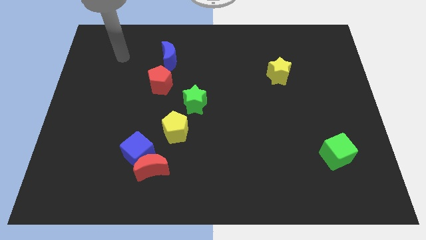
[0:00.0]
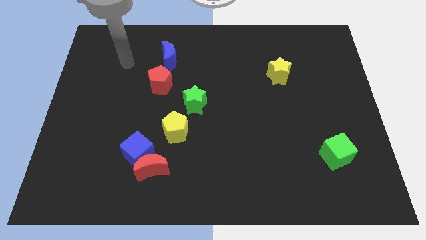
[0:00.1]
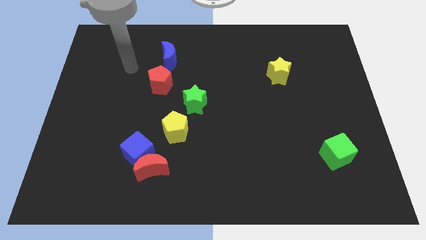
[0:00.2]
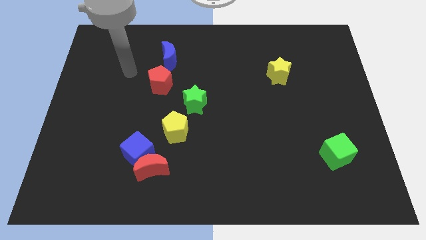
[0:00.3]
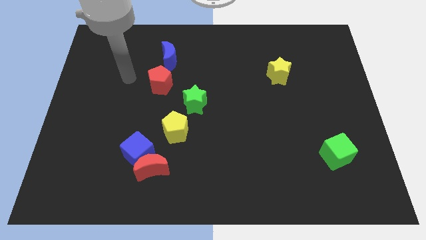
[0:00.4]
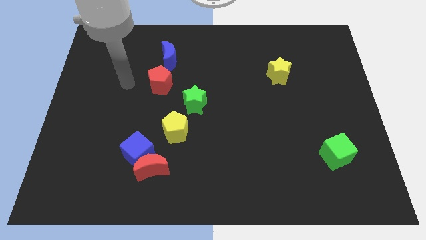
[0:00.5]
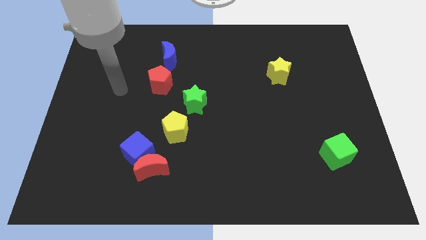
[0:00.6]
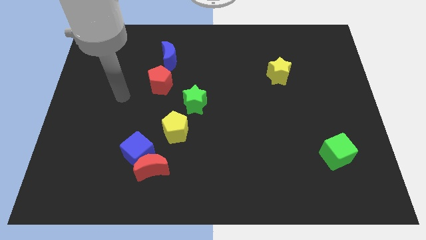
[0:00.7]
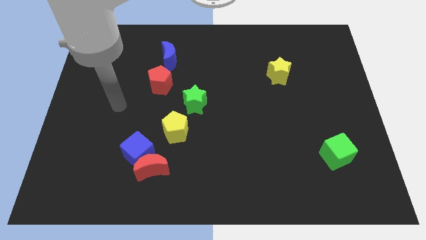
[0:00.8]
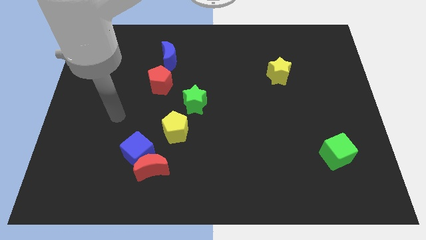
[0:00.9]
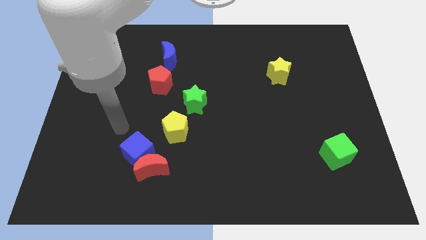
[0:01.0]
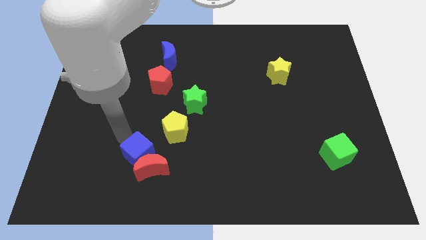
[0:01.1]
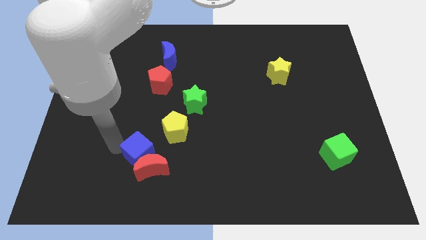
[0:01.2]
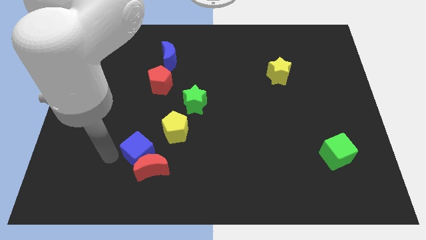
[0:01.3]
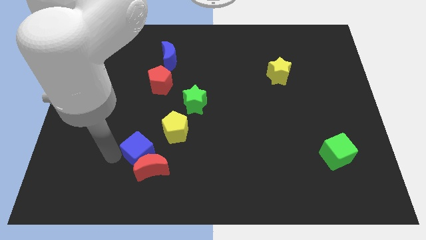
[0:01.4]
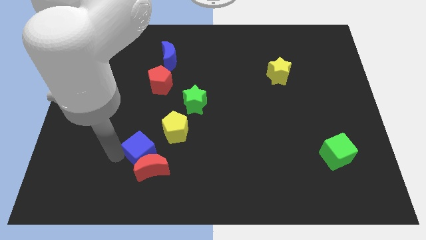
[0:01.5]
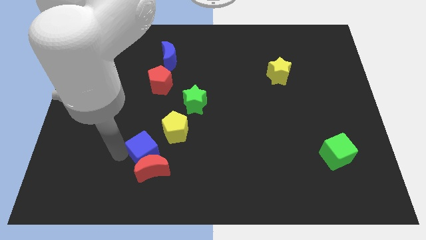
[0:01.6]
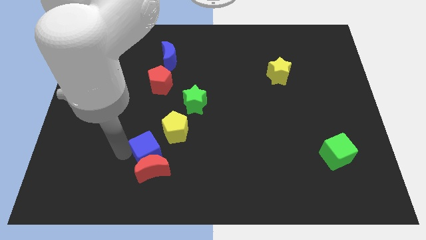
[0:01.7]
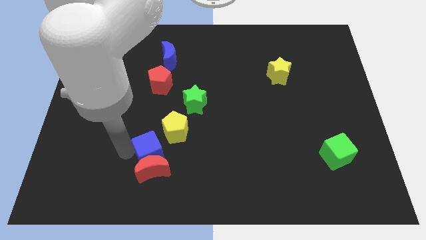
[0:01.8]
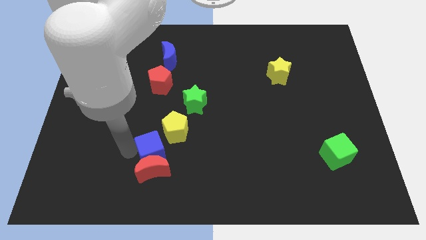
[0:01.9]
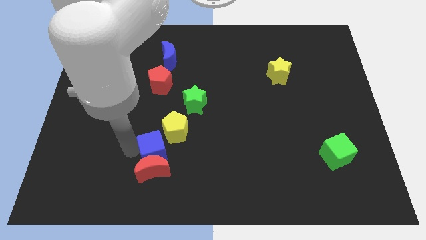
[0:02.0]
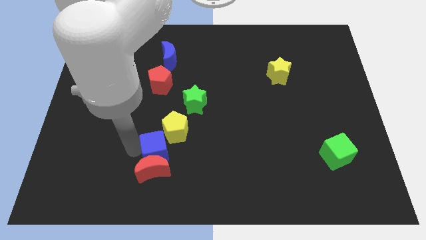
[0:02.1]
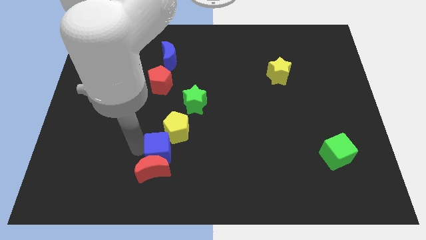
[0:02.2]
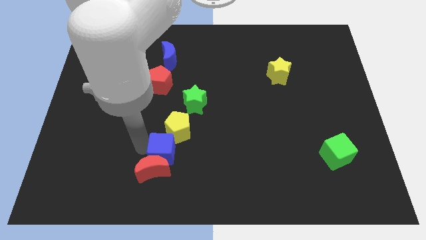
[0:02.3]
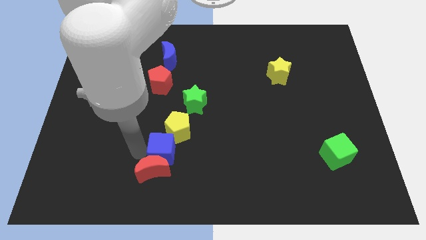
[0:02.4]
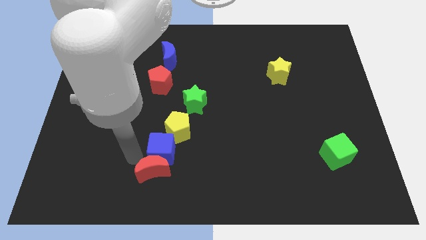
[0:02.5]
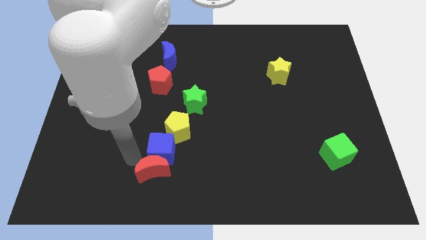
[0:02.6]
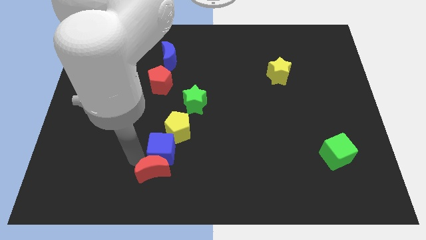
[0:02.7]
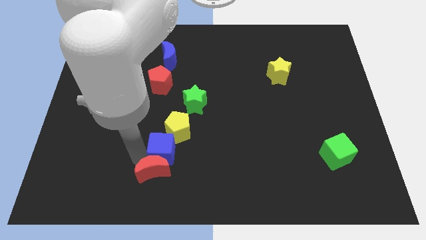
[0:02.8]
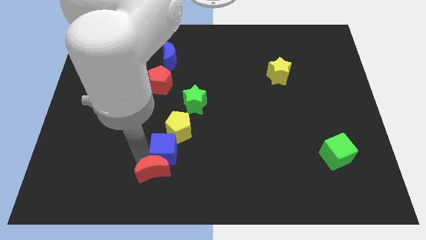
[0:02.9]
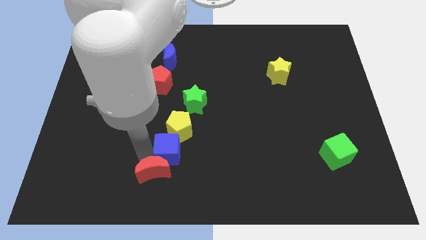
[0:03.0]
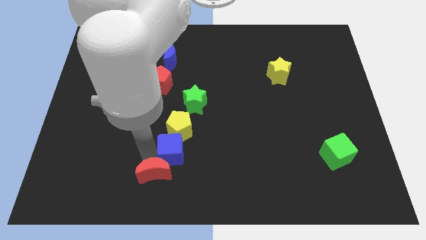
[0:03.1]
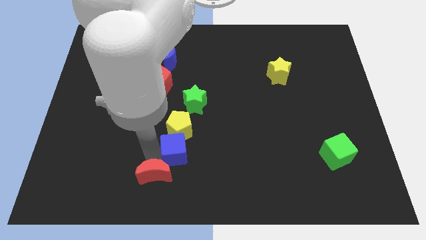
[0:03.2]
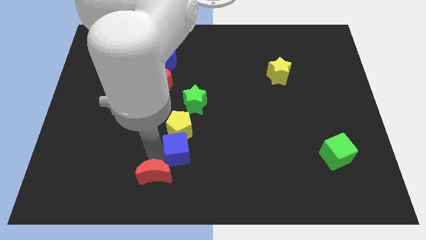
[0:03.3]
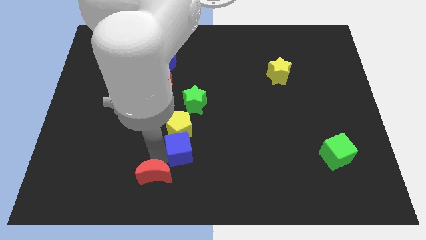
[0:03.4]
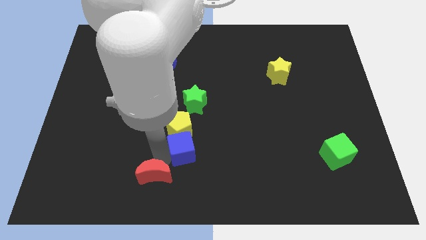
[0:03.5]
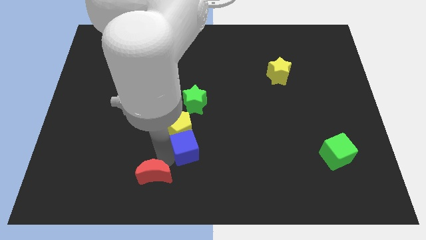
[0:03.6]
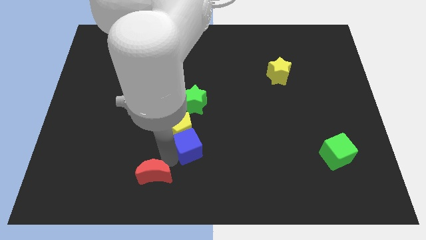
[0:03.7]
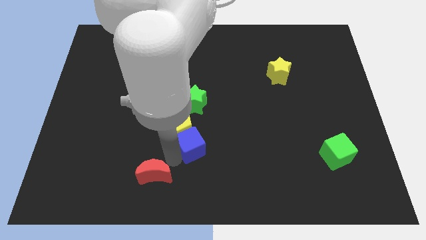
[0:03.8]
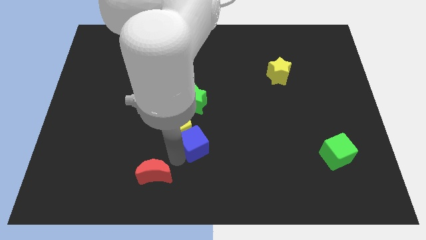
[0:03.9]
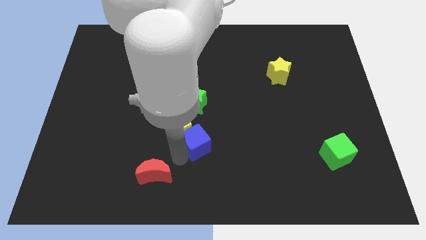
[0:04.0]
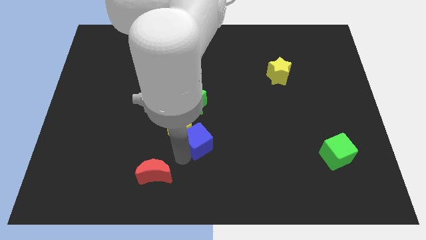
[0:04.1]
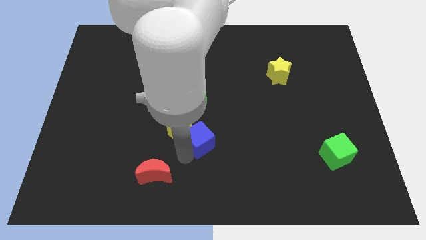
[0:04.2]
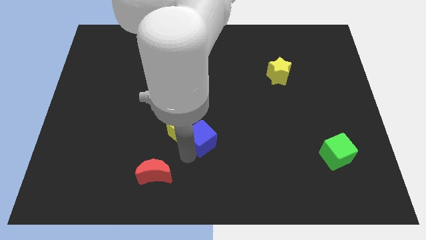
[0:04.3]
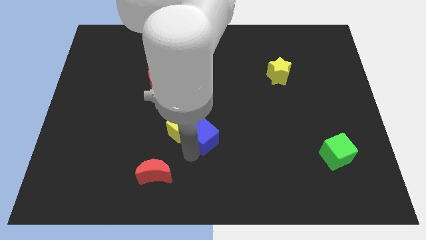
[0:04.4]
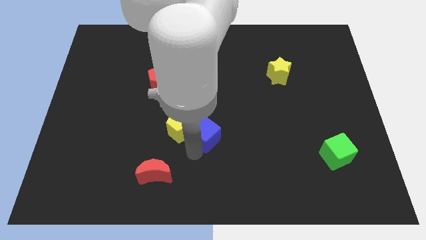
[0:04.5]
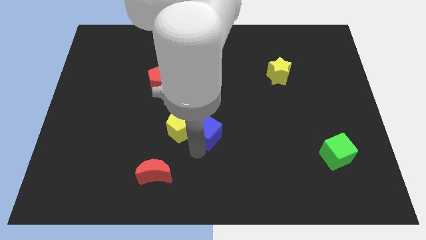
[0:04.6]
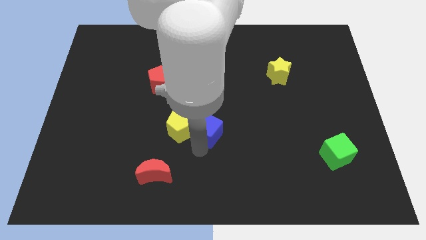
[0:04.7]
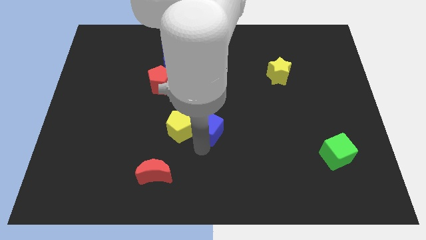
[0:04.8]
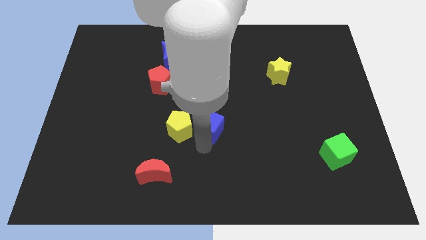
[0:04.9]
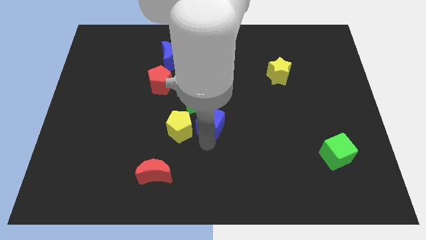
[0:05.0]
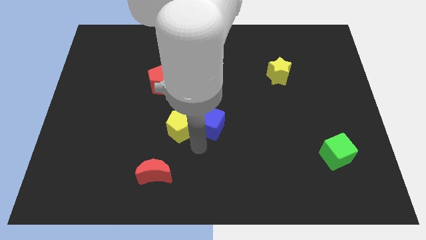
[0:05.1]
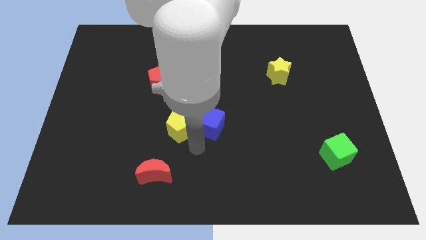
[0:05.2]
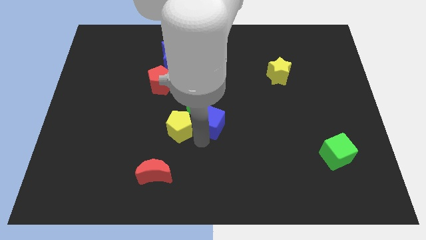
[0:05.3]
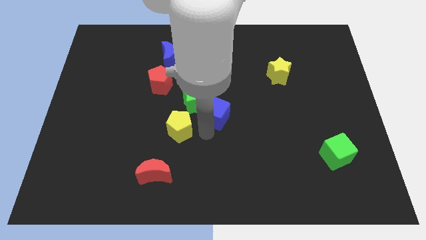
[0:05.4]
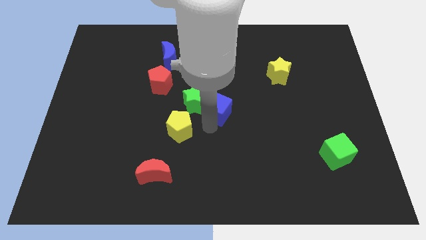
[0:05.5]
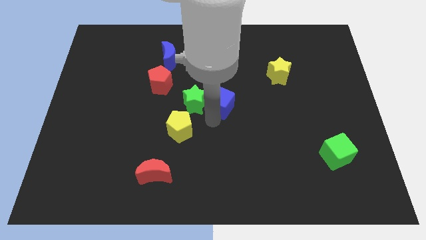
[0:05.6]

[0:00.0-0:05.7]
slide the blue cube upwards and right

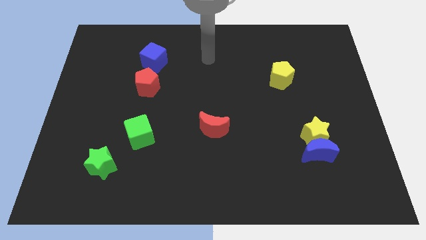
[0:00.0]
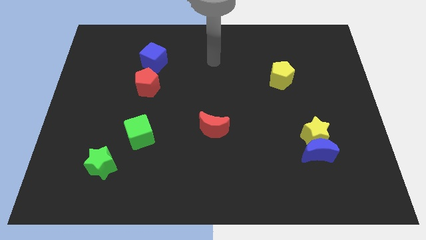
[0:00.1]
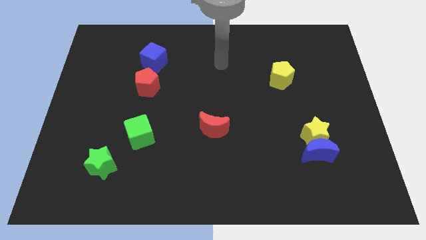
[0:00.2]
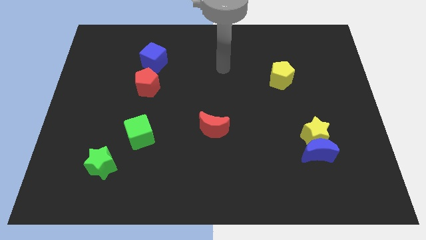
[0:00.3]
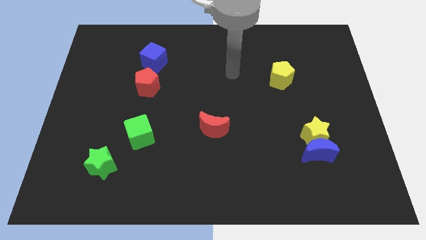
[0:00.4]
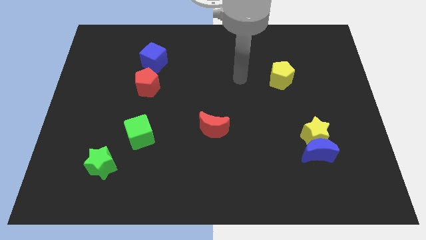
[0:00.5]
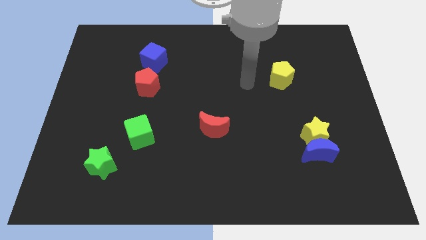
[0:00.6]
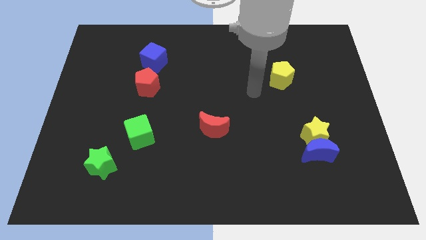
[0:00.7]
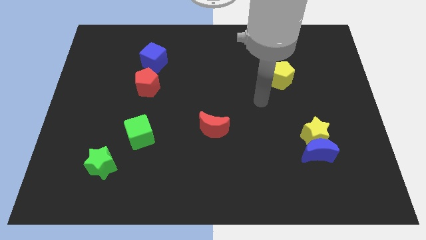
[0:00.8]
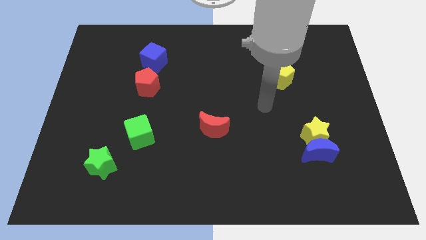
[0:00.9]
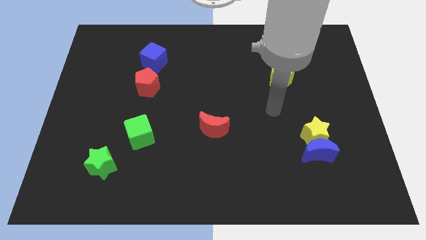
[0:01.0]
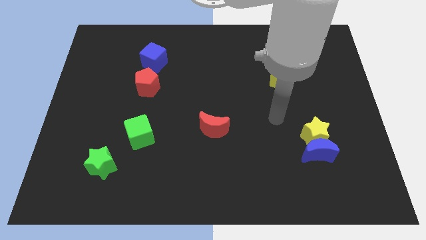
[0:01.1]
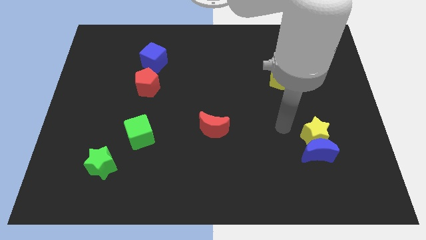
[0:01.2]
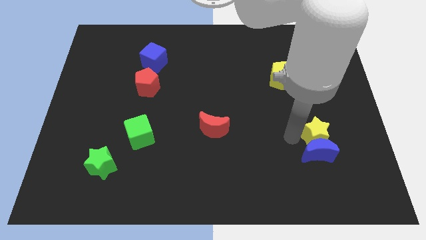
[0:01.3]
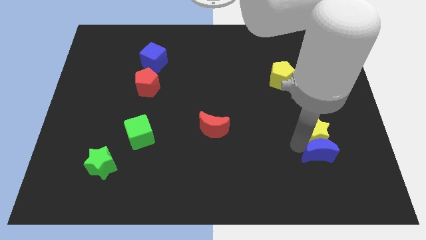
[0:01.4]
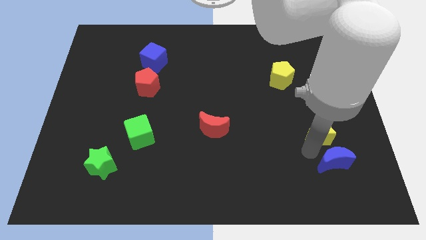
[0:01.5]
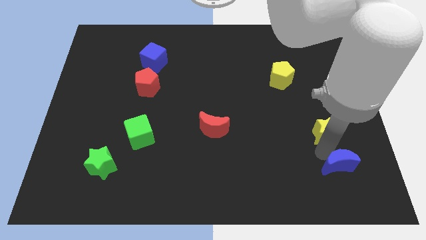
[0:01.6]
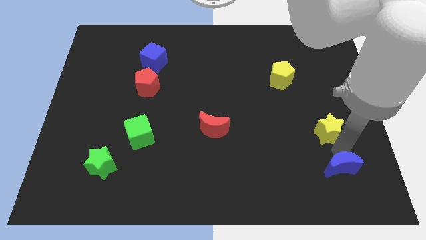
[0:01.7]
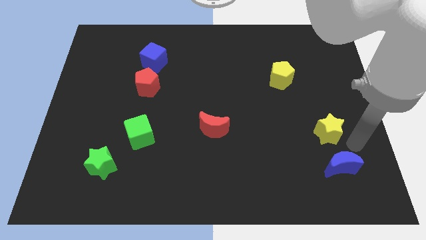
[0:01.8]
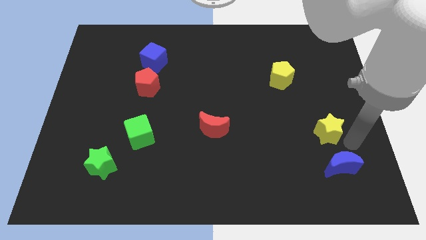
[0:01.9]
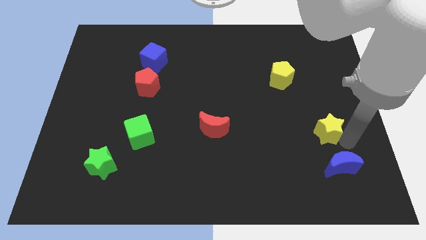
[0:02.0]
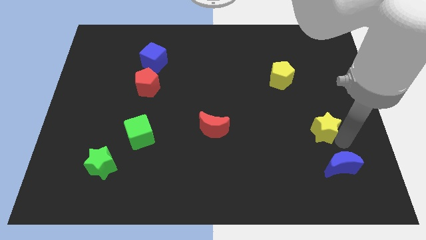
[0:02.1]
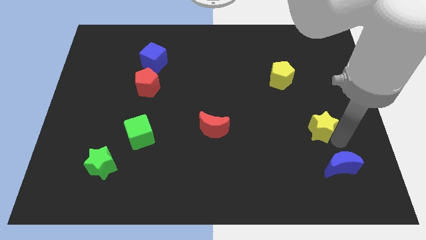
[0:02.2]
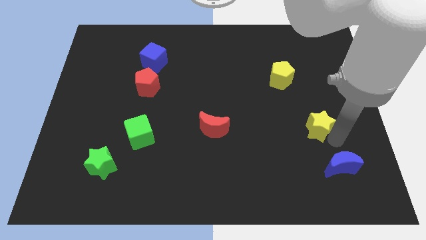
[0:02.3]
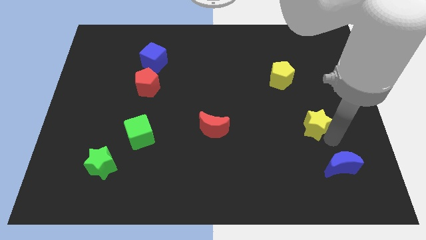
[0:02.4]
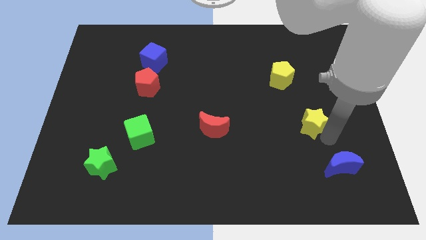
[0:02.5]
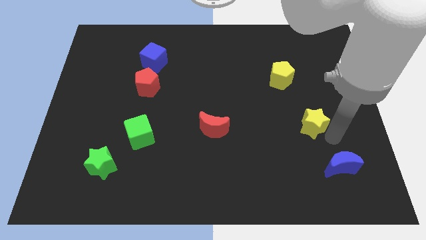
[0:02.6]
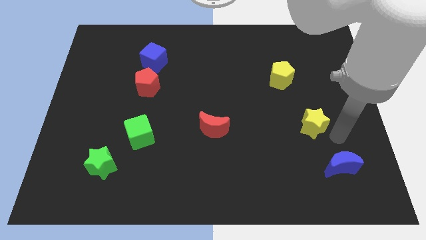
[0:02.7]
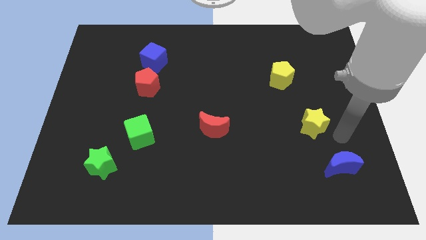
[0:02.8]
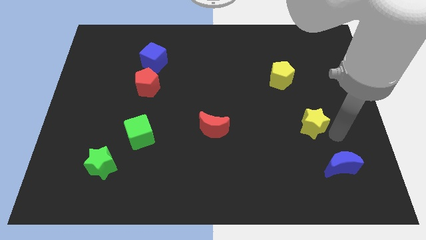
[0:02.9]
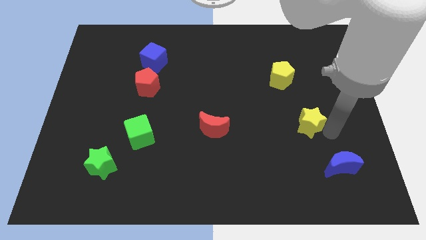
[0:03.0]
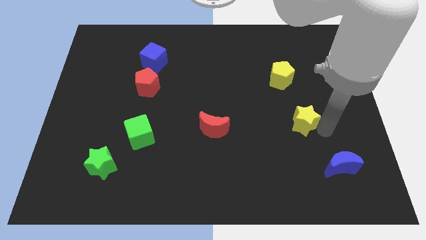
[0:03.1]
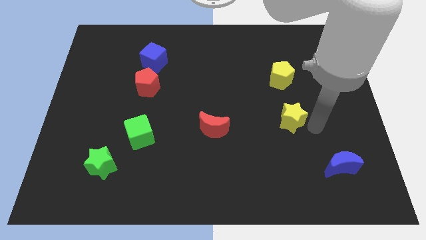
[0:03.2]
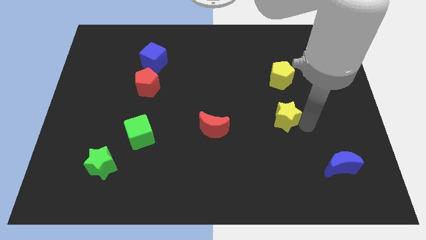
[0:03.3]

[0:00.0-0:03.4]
move the yellow star up and left a little
